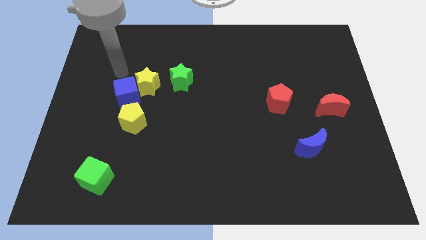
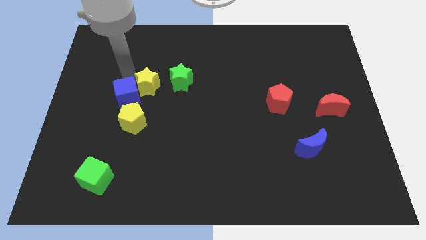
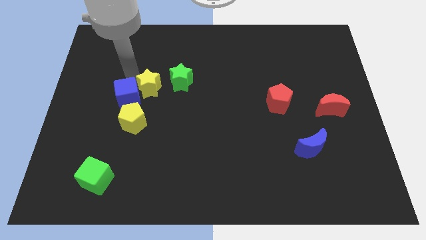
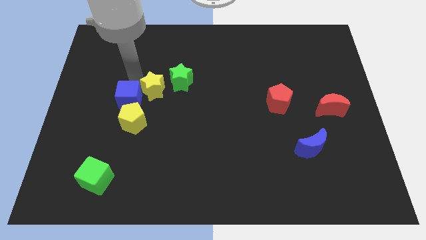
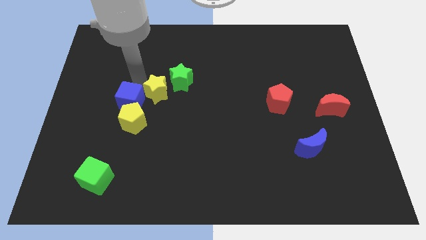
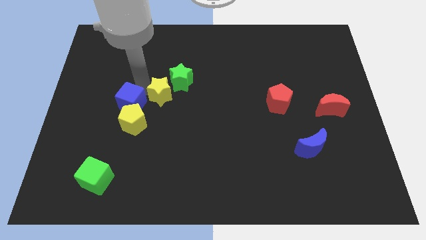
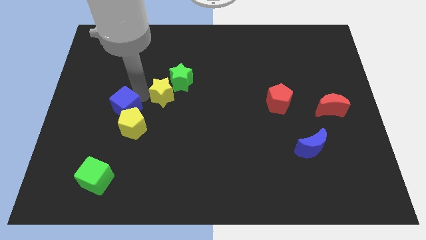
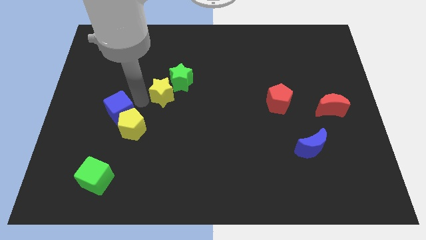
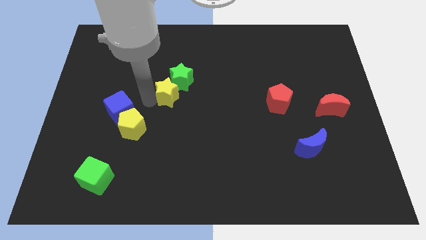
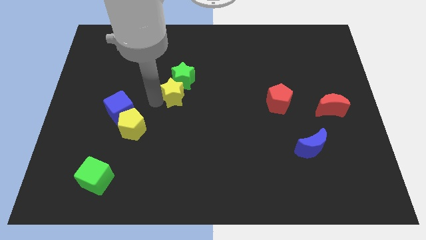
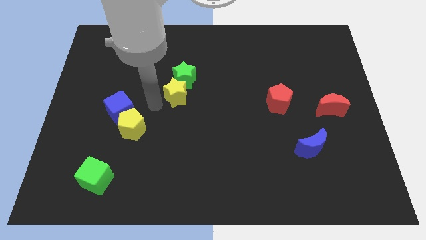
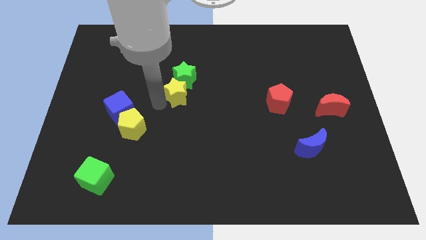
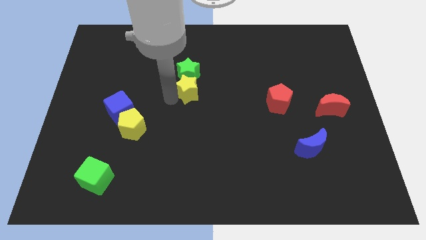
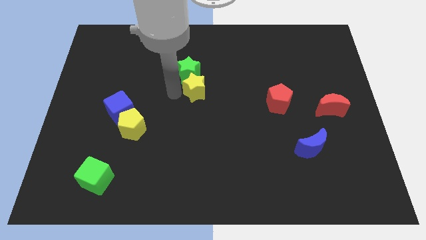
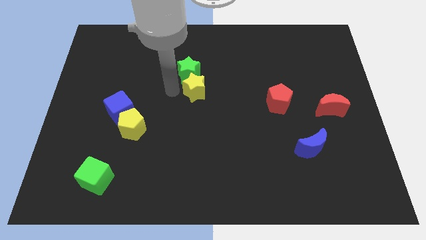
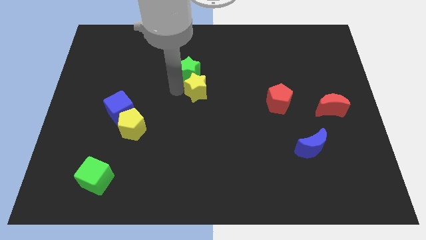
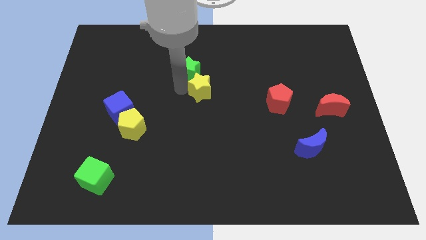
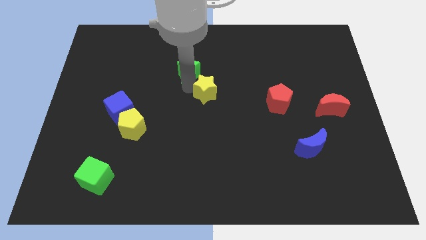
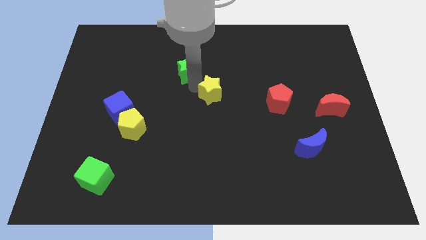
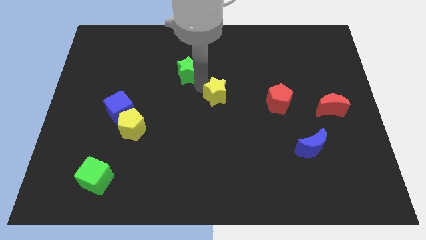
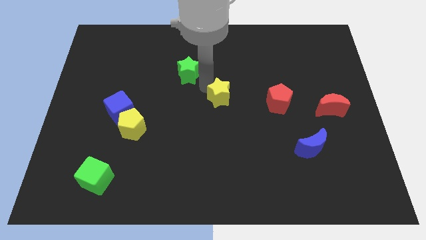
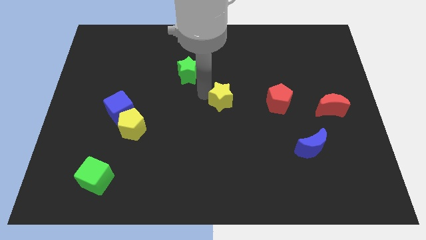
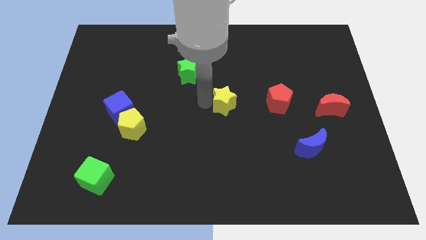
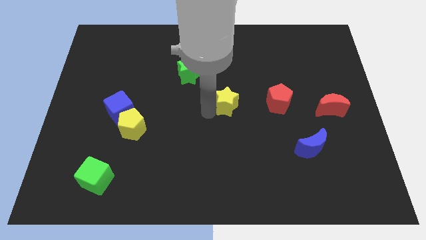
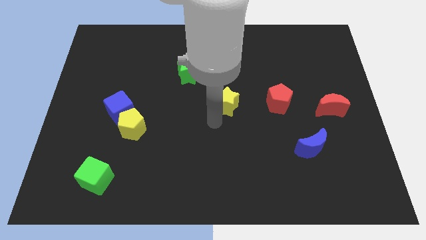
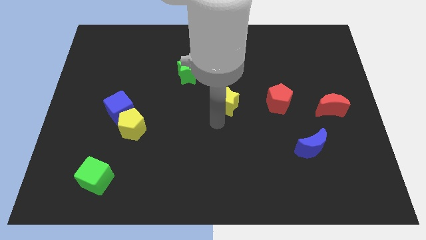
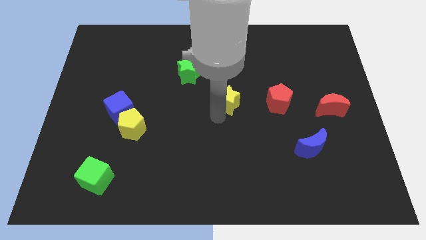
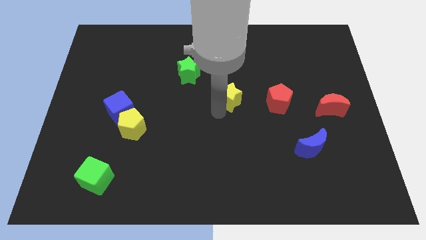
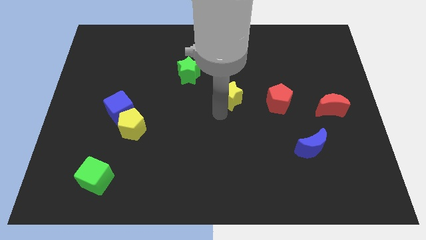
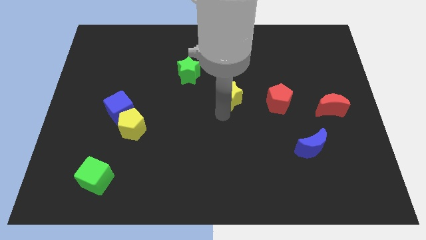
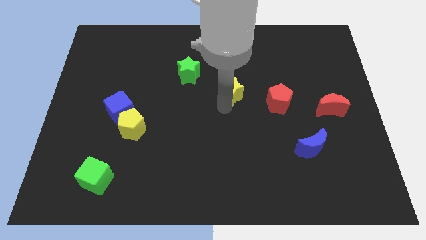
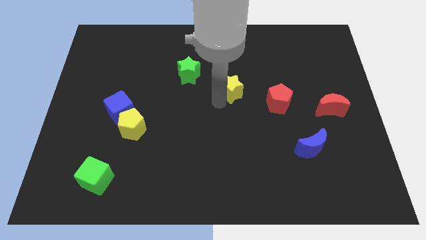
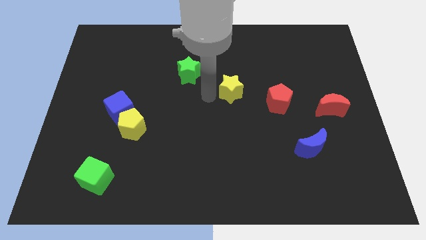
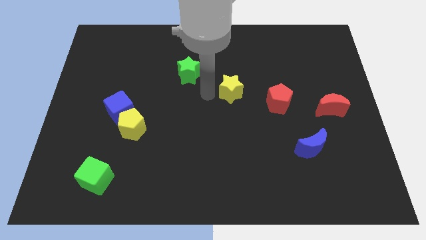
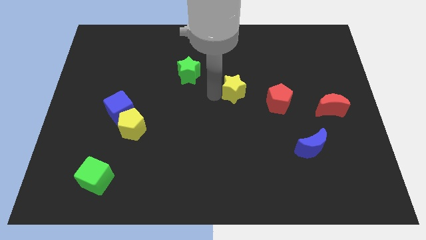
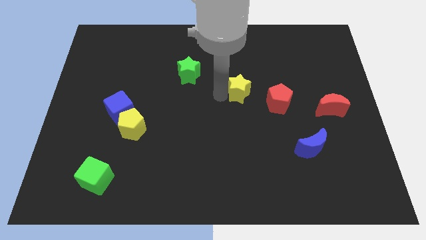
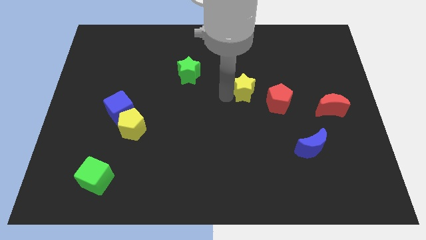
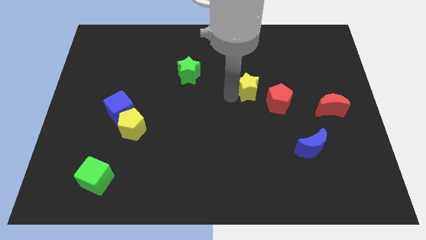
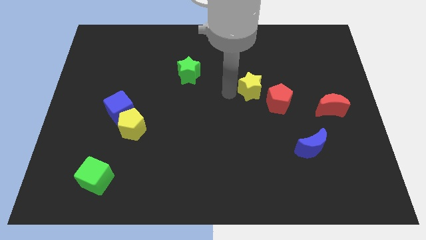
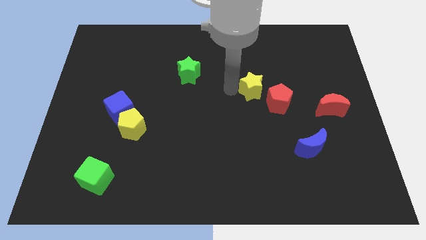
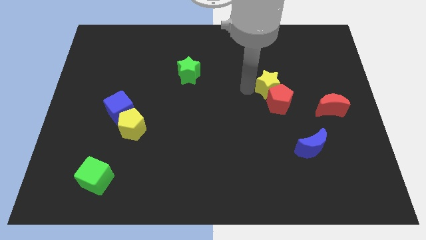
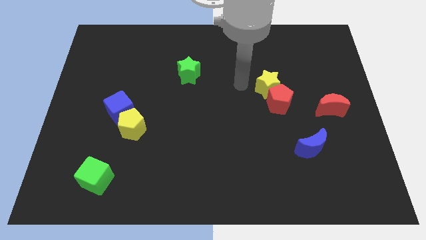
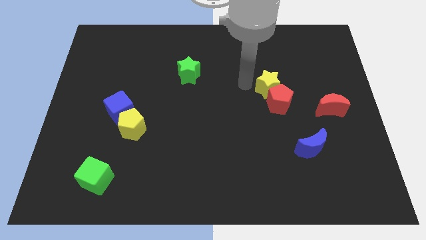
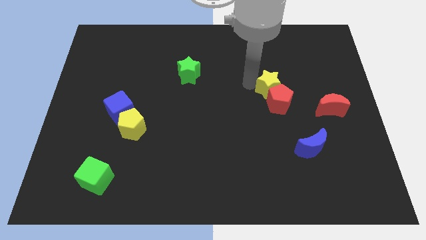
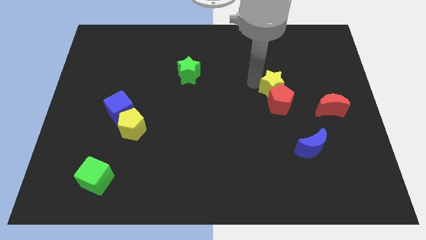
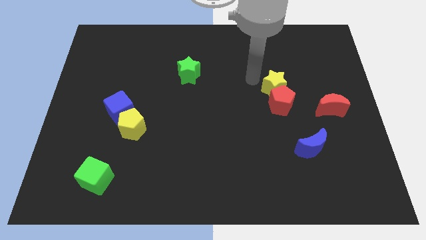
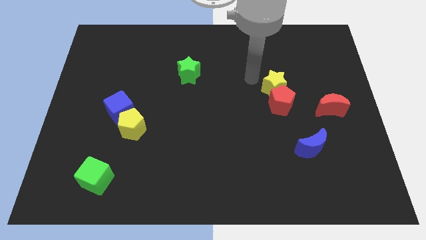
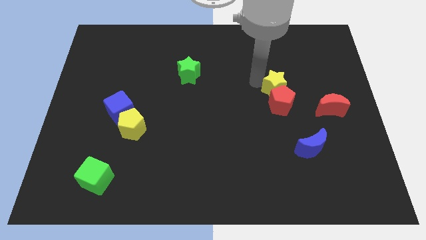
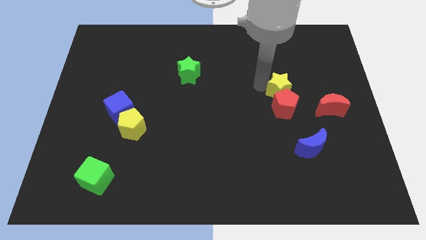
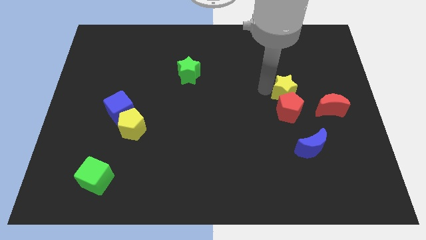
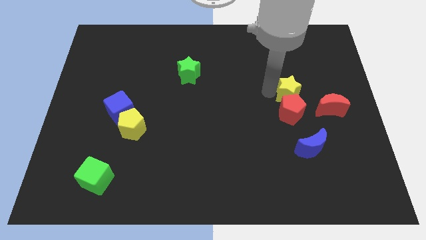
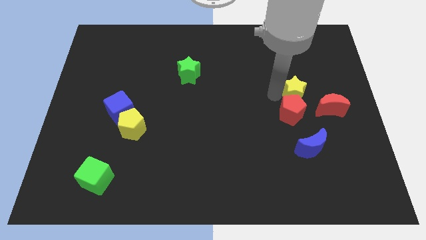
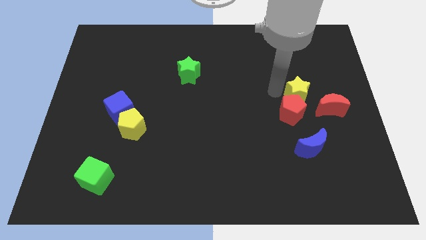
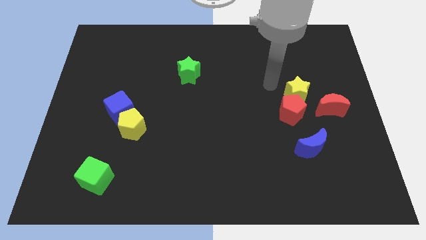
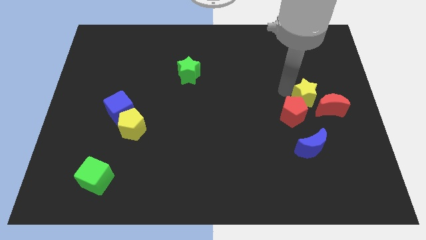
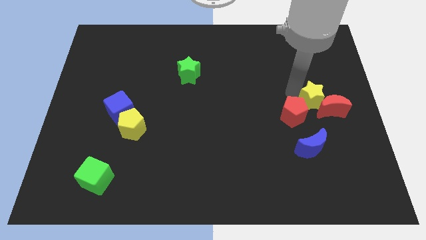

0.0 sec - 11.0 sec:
put the yellow star next to the red moon

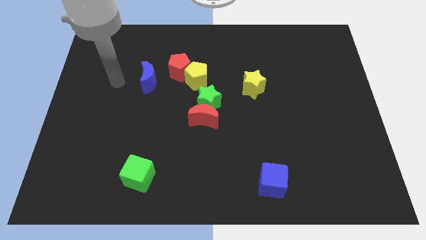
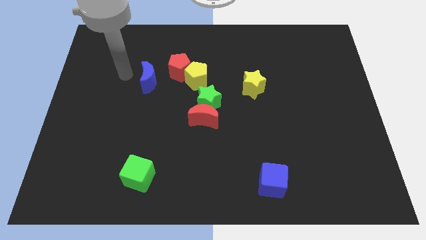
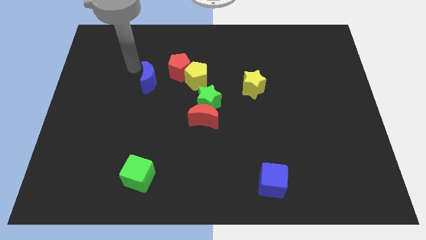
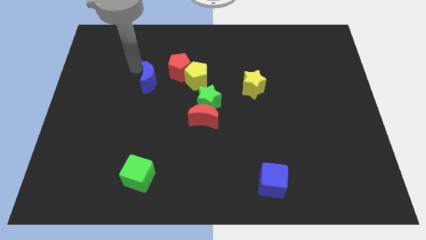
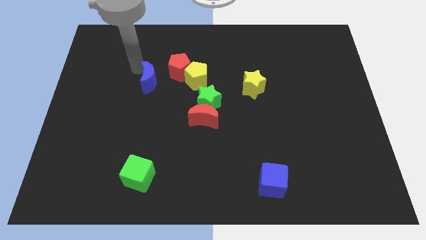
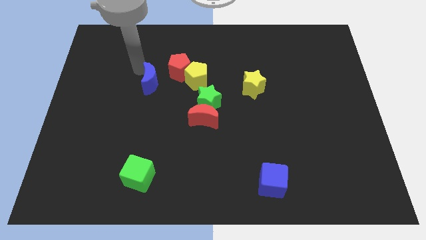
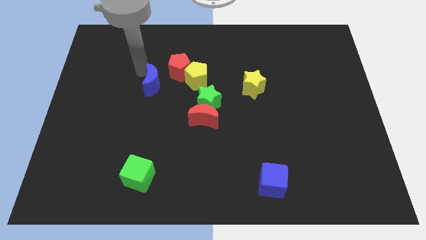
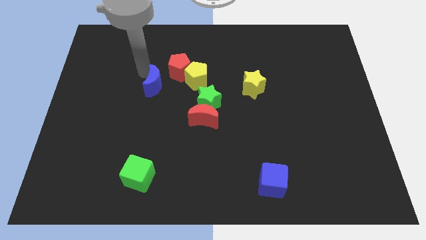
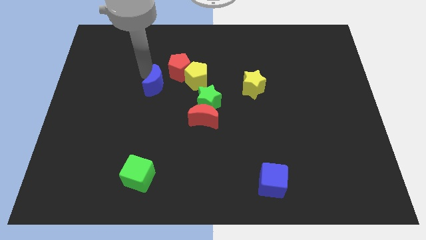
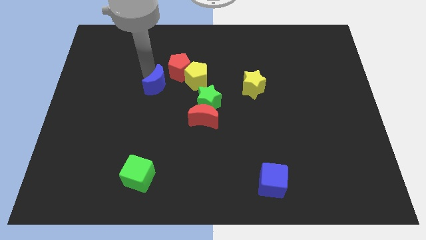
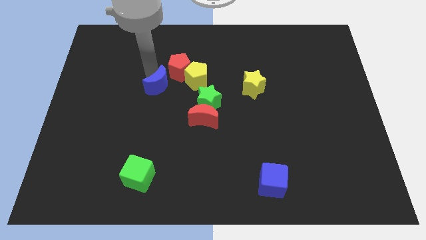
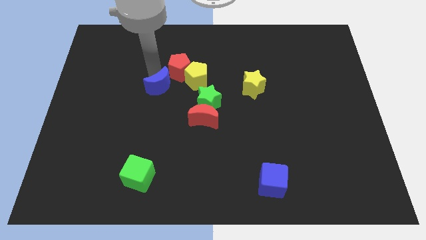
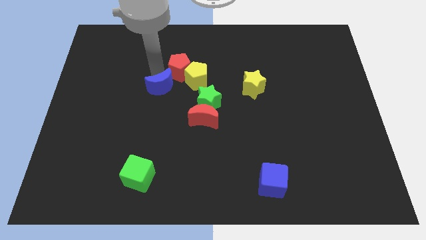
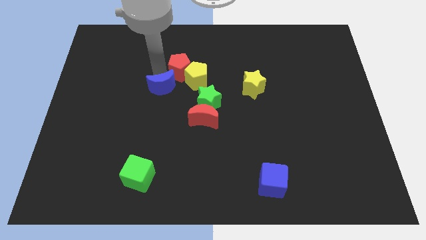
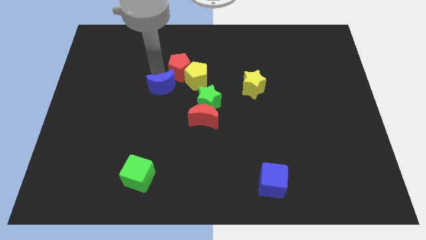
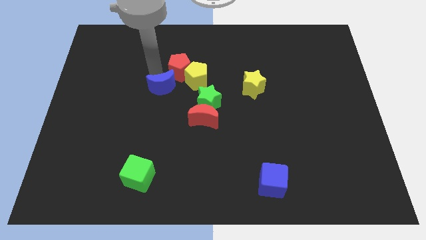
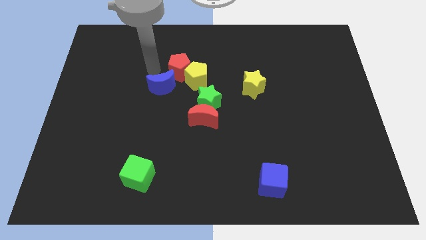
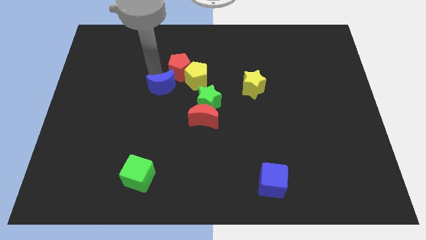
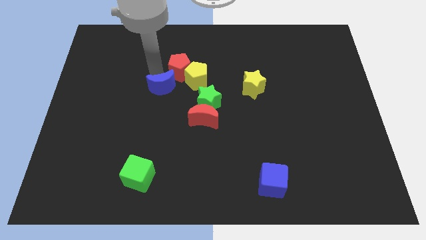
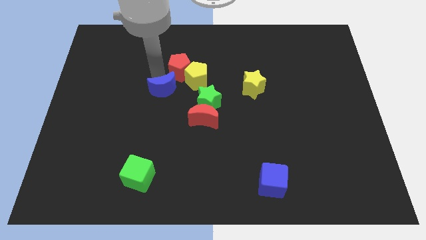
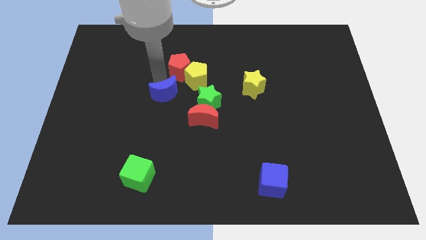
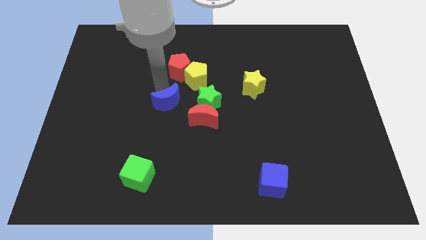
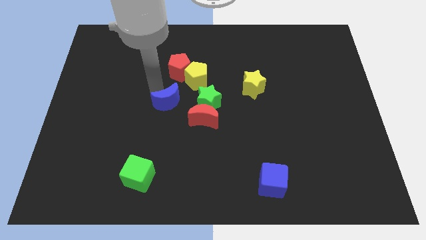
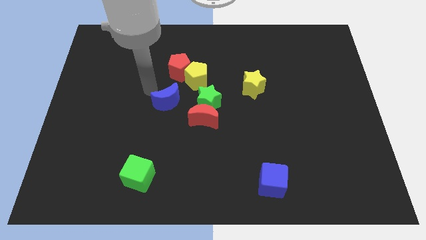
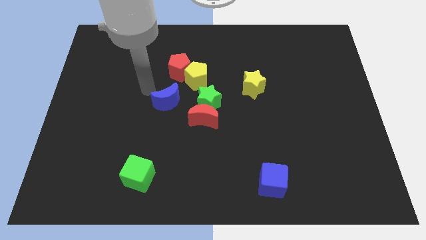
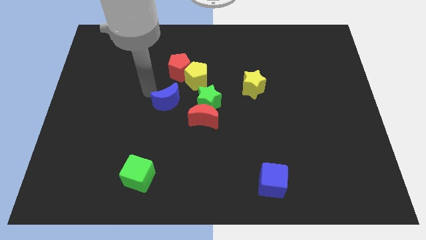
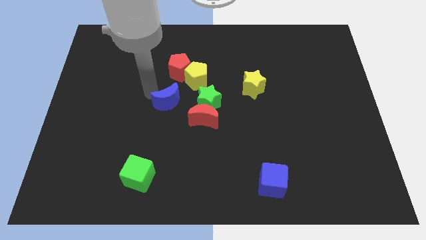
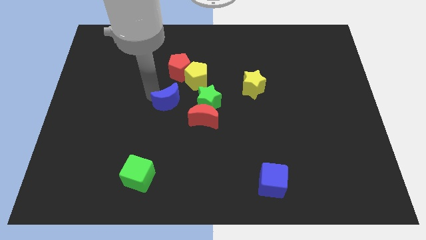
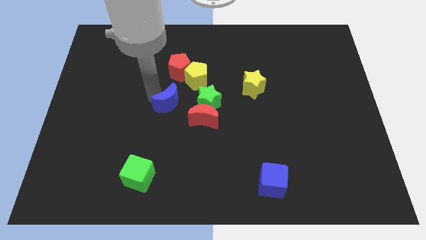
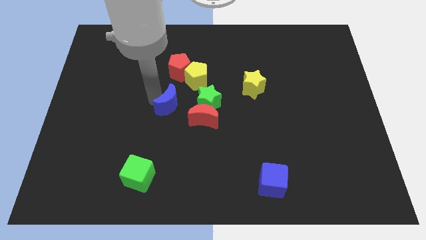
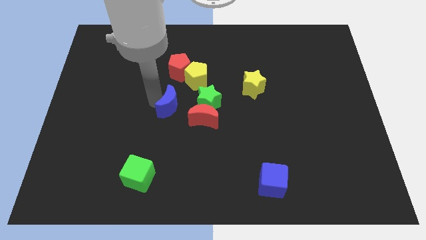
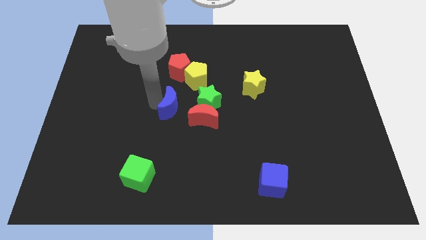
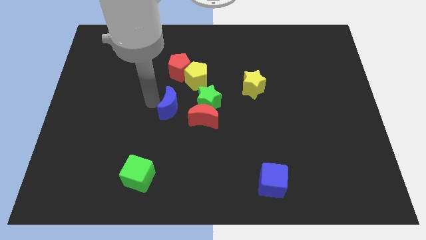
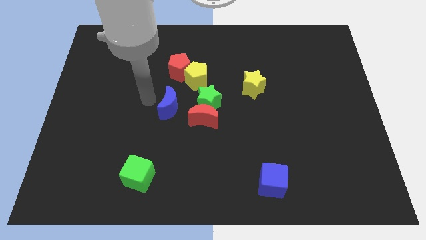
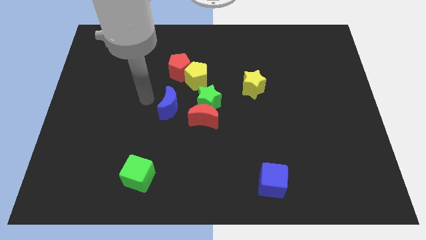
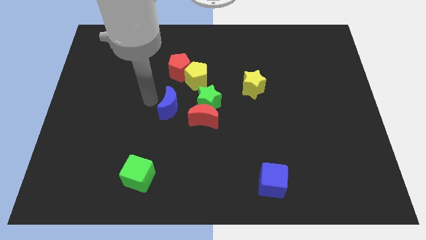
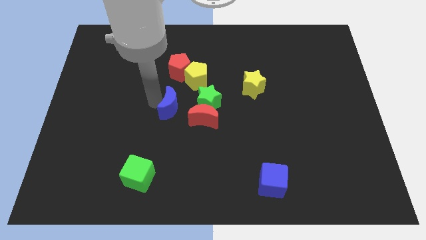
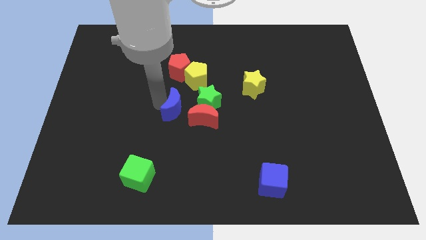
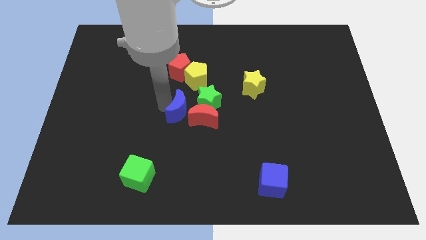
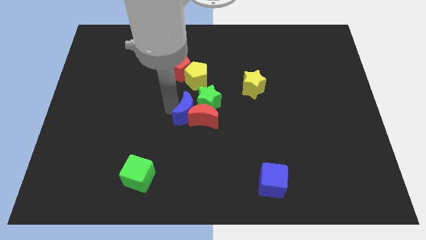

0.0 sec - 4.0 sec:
slide the blue moon close to the red moon
